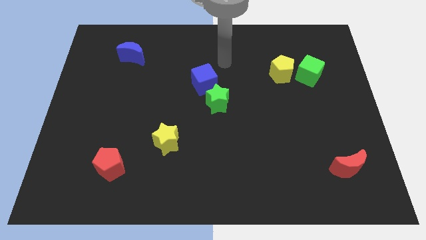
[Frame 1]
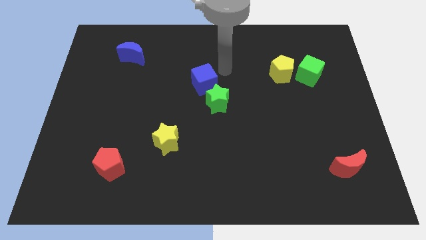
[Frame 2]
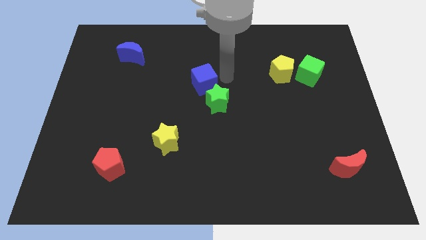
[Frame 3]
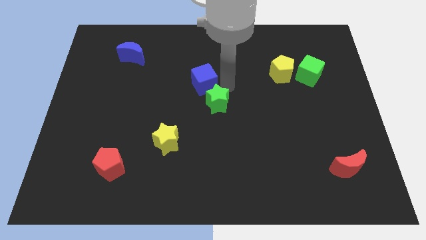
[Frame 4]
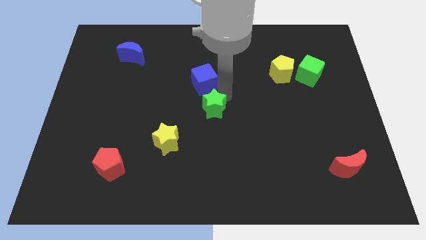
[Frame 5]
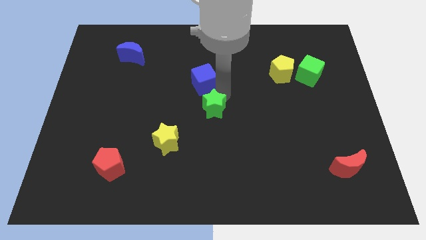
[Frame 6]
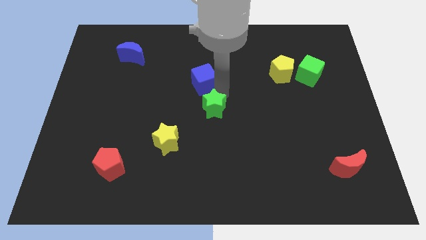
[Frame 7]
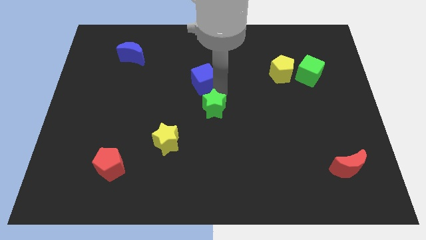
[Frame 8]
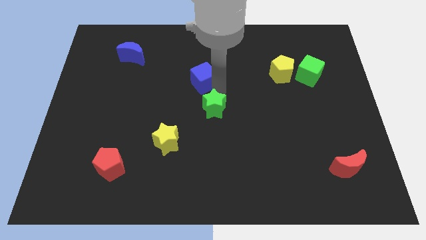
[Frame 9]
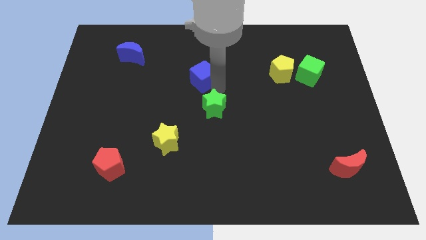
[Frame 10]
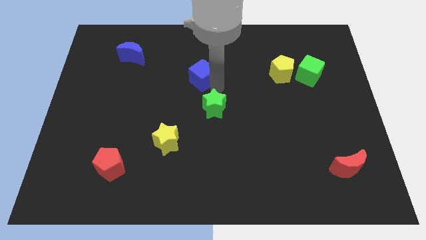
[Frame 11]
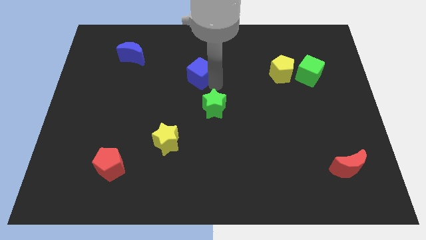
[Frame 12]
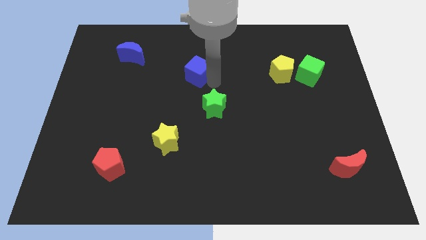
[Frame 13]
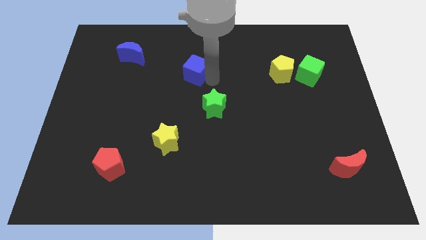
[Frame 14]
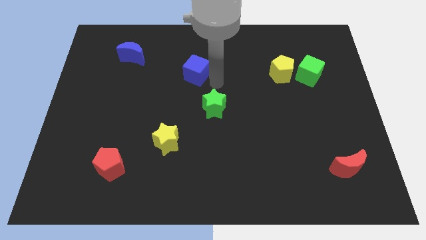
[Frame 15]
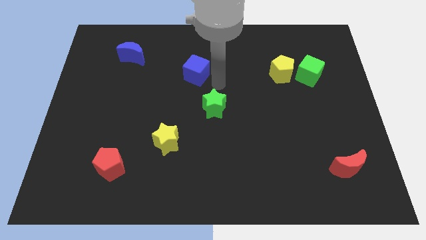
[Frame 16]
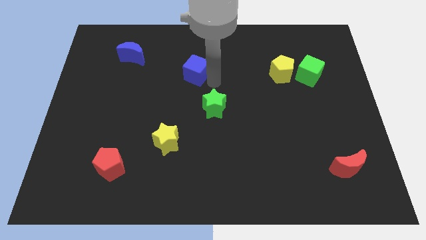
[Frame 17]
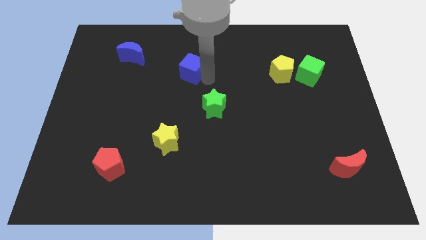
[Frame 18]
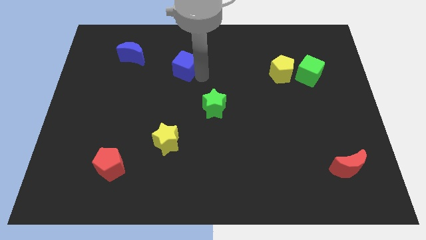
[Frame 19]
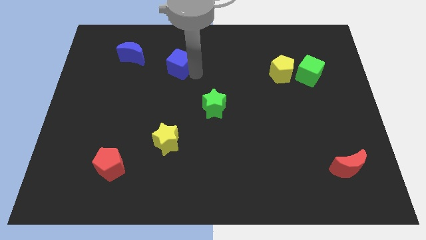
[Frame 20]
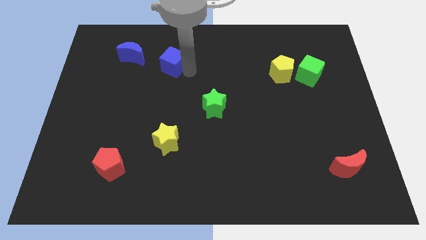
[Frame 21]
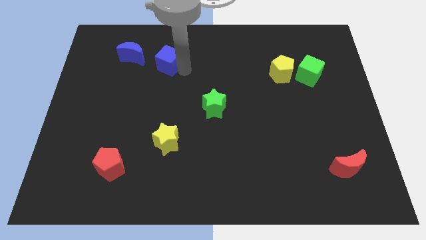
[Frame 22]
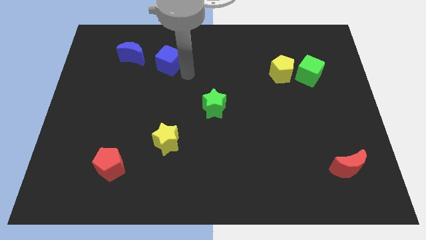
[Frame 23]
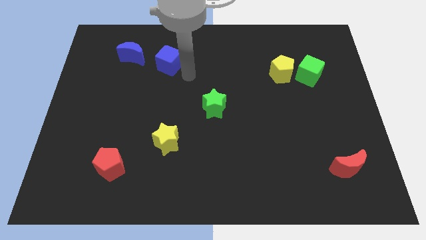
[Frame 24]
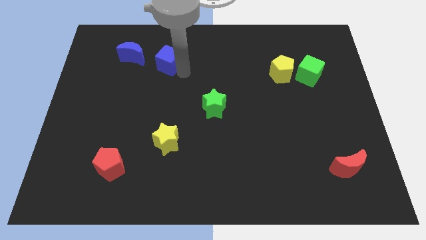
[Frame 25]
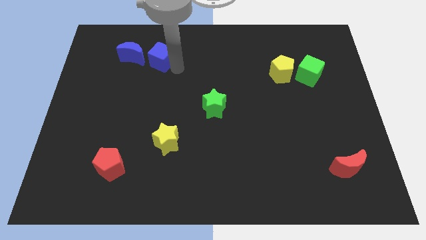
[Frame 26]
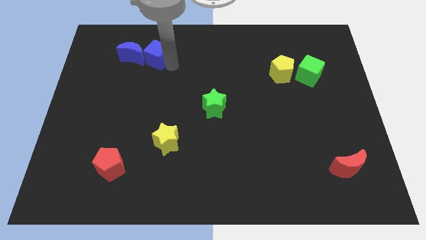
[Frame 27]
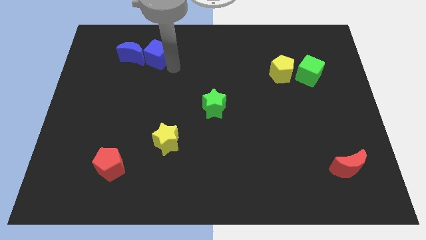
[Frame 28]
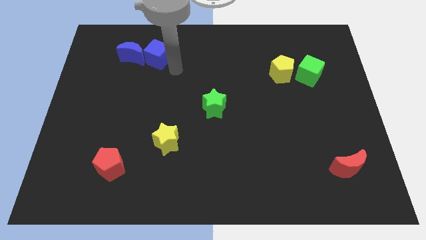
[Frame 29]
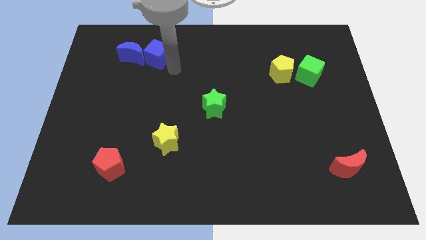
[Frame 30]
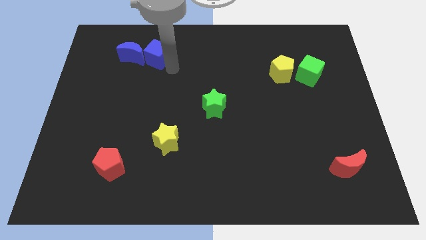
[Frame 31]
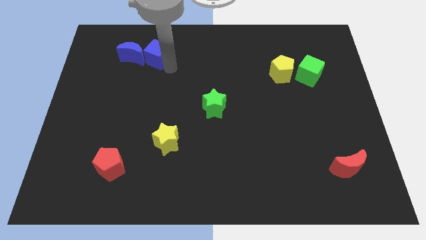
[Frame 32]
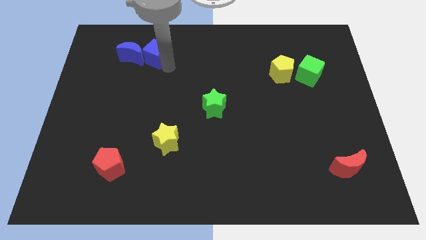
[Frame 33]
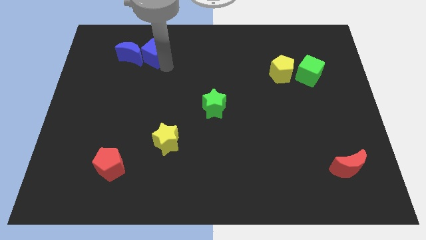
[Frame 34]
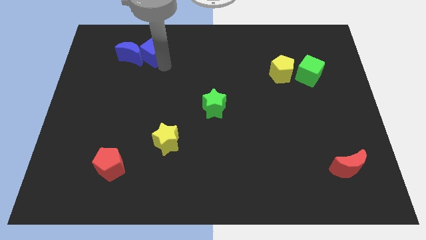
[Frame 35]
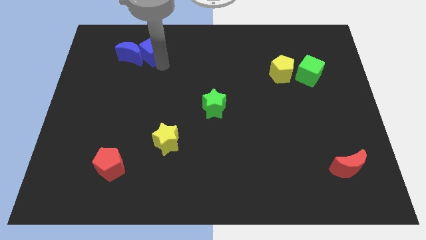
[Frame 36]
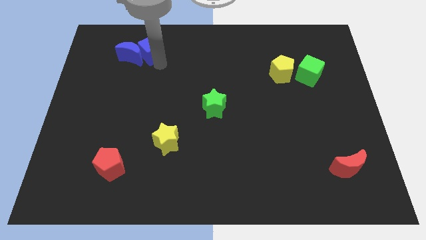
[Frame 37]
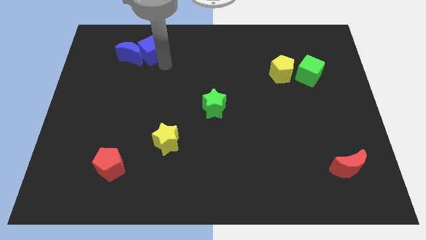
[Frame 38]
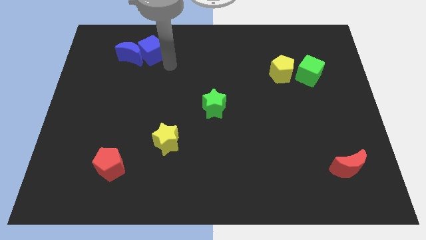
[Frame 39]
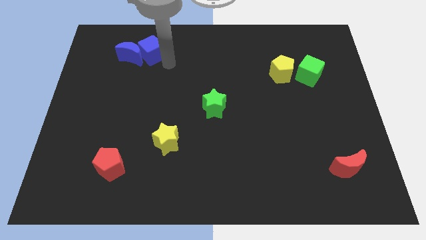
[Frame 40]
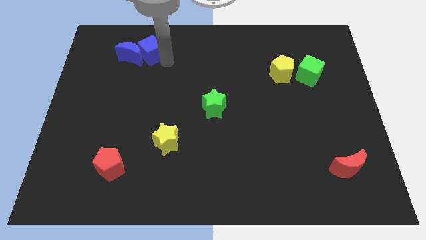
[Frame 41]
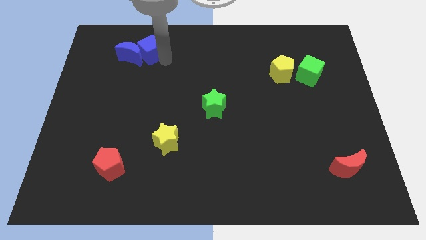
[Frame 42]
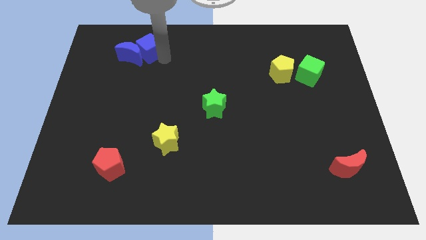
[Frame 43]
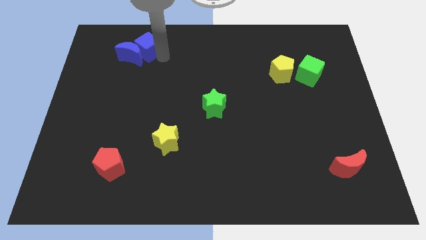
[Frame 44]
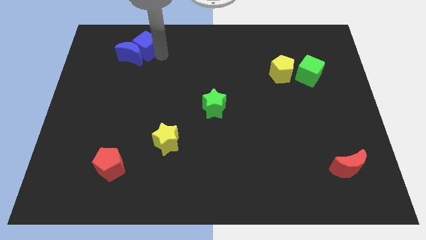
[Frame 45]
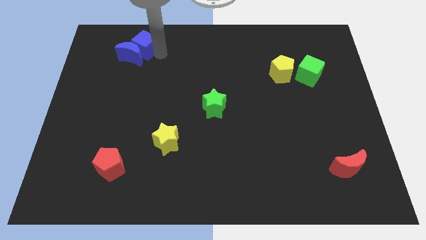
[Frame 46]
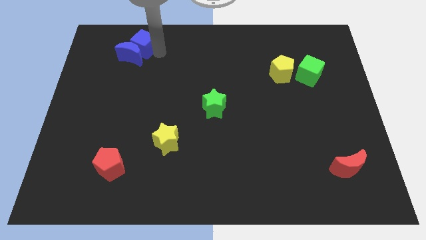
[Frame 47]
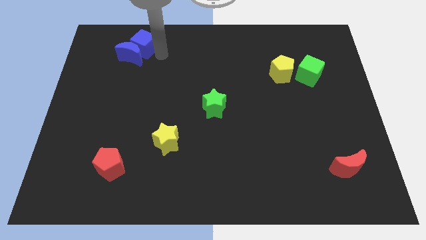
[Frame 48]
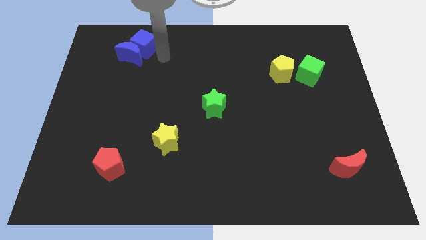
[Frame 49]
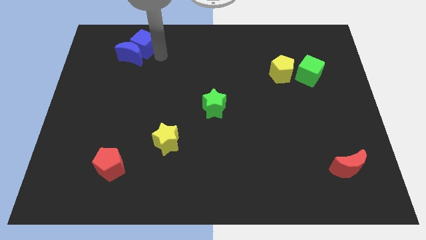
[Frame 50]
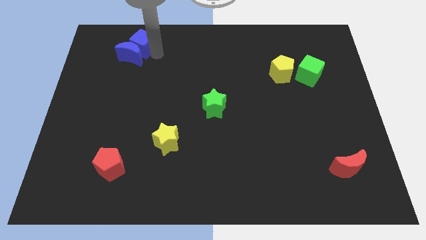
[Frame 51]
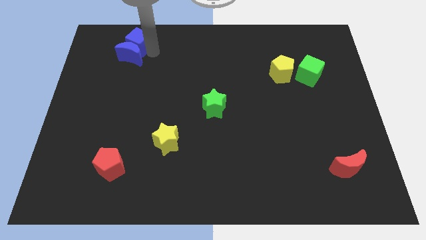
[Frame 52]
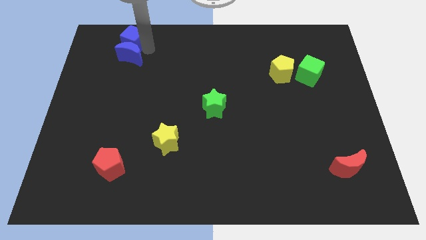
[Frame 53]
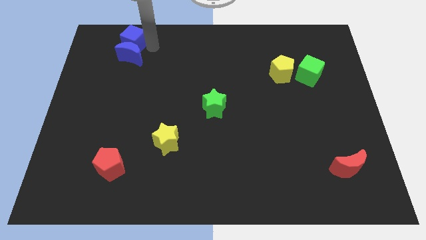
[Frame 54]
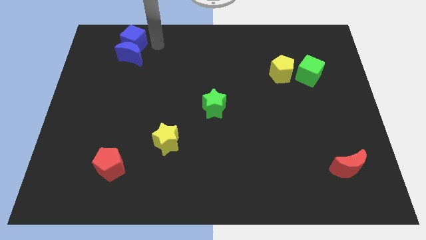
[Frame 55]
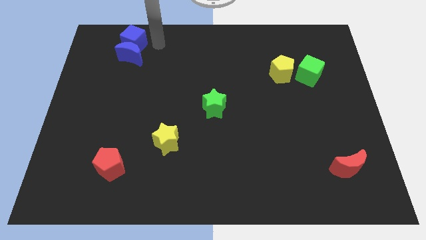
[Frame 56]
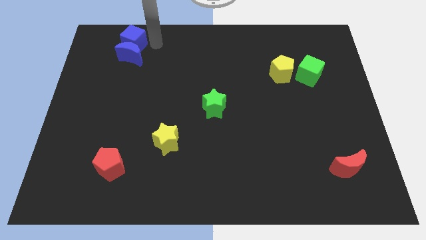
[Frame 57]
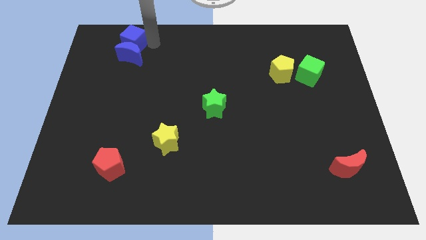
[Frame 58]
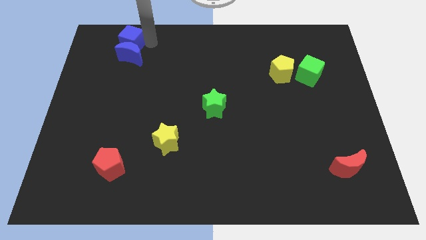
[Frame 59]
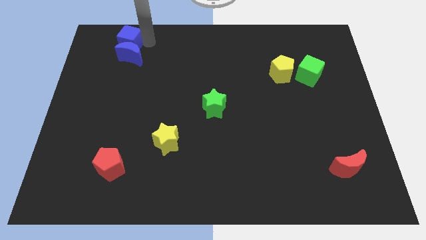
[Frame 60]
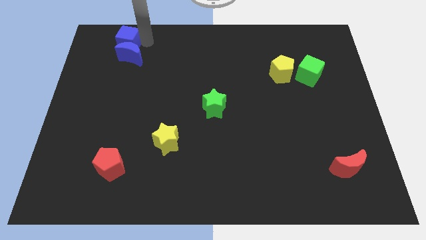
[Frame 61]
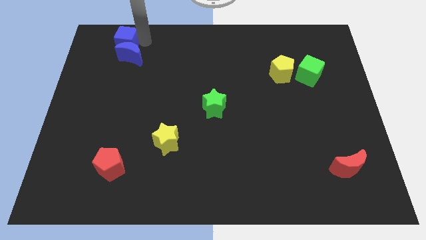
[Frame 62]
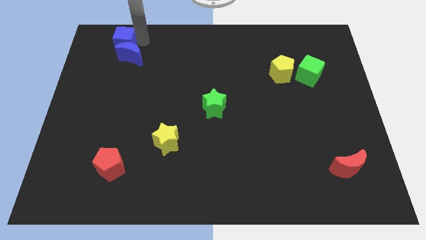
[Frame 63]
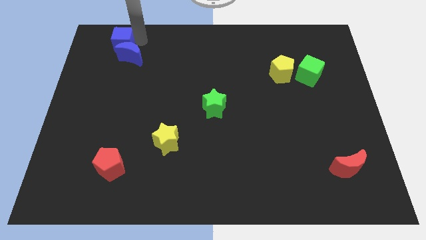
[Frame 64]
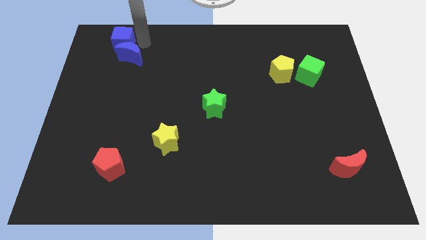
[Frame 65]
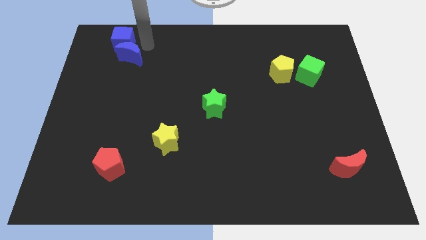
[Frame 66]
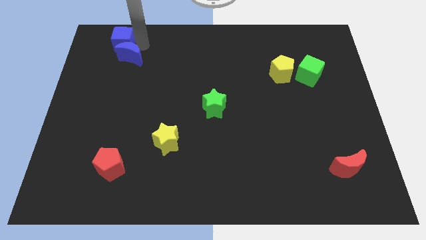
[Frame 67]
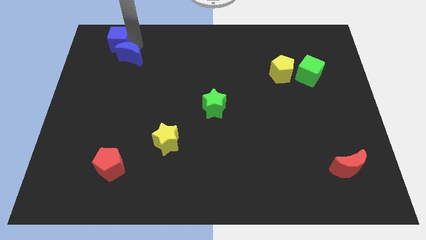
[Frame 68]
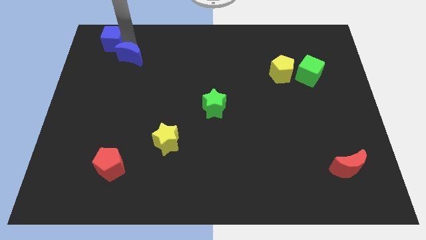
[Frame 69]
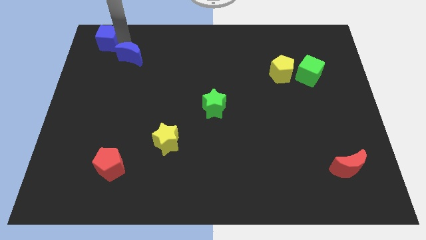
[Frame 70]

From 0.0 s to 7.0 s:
push the blue cube to the top left of the board
